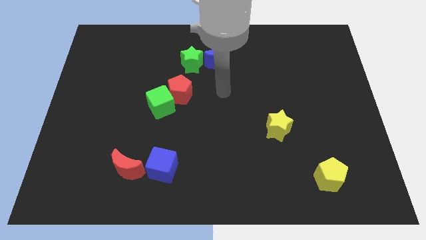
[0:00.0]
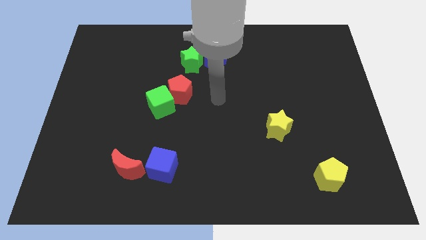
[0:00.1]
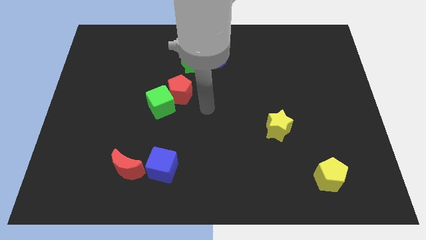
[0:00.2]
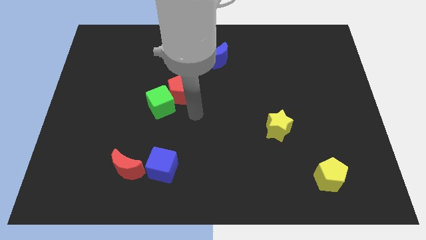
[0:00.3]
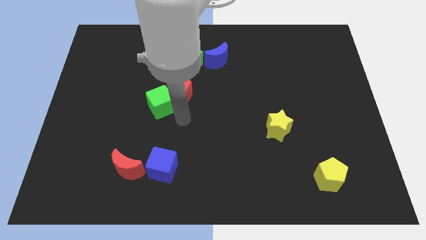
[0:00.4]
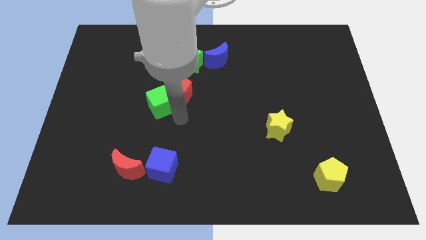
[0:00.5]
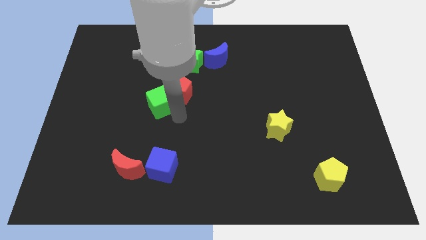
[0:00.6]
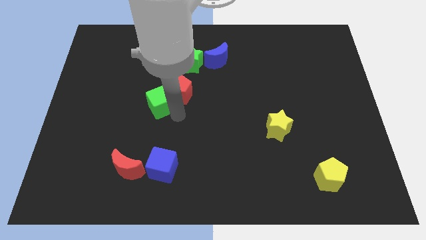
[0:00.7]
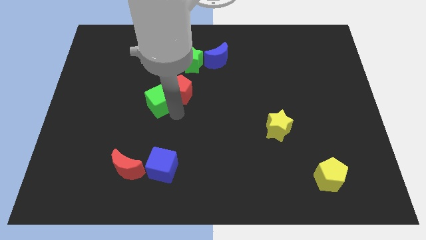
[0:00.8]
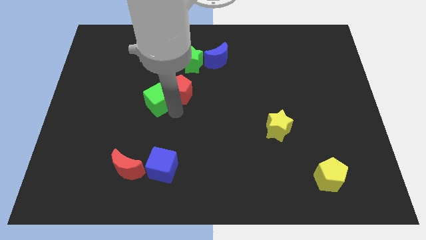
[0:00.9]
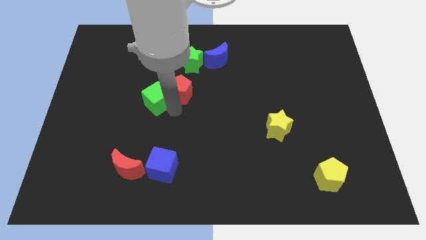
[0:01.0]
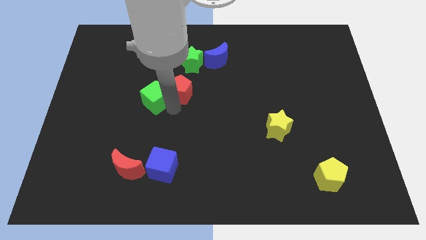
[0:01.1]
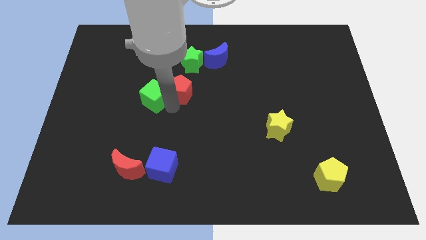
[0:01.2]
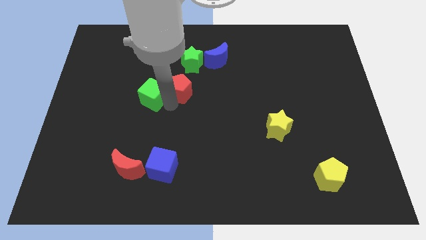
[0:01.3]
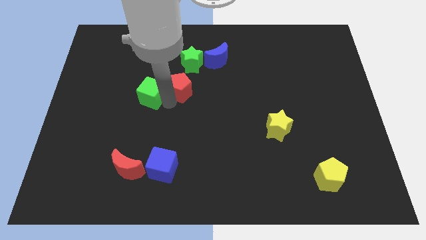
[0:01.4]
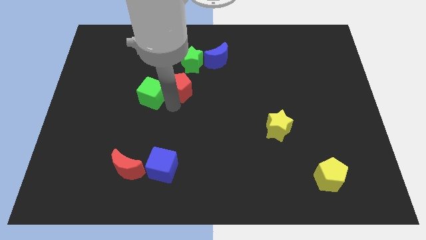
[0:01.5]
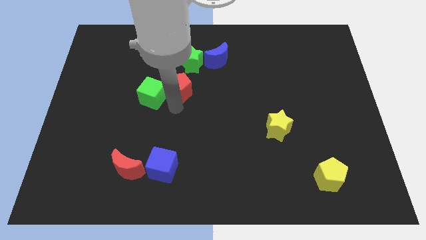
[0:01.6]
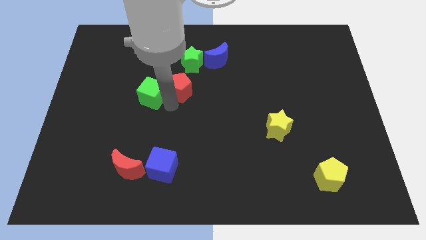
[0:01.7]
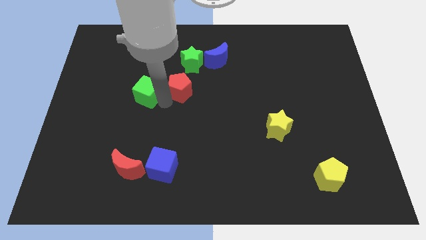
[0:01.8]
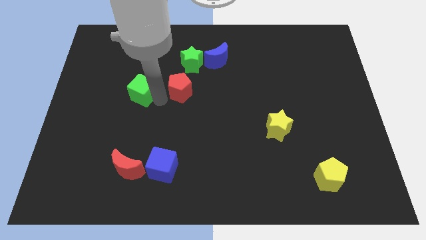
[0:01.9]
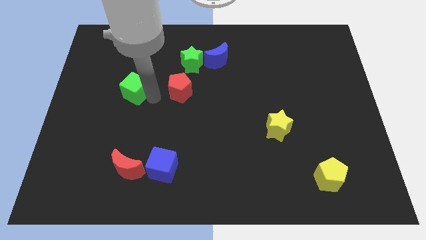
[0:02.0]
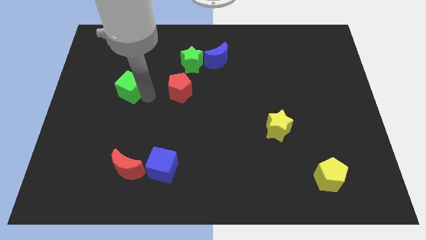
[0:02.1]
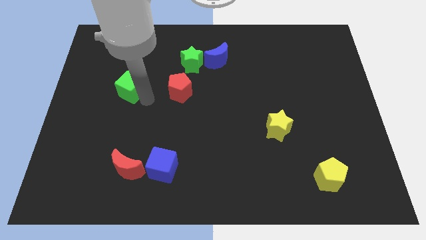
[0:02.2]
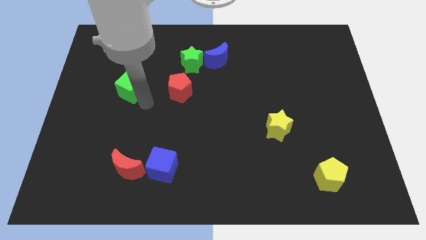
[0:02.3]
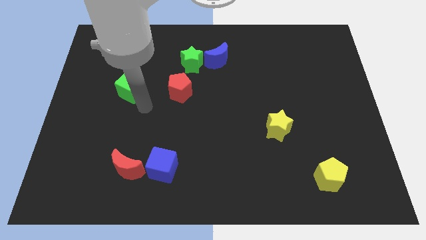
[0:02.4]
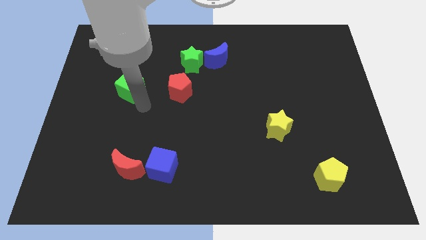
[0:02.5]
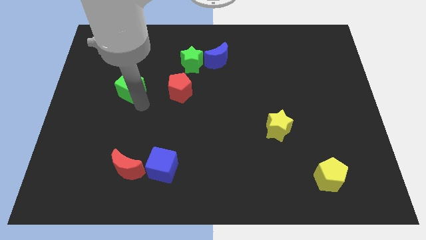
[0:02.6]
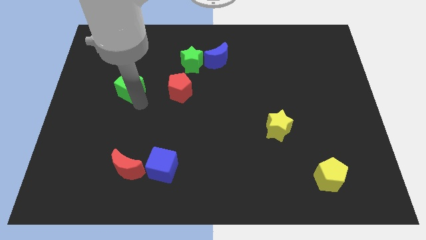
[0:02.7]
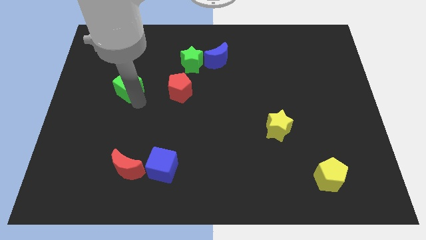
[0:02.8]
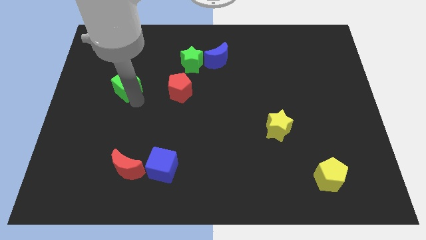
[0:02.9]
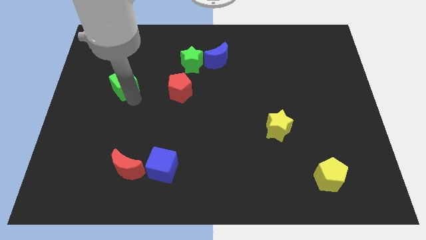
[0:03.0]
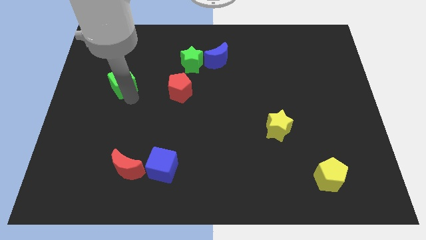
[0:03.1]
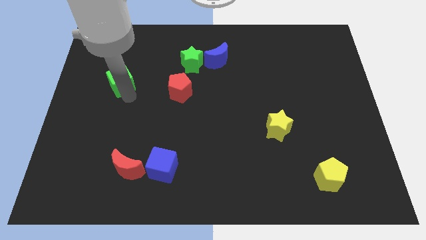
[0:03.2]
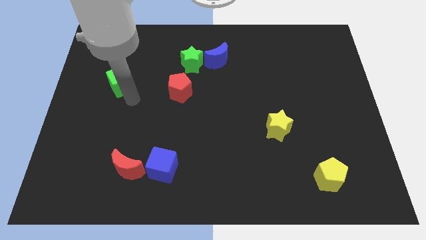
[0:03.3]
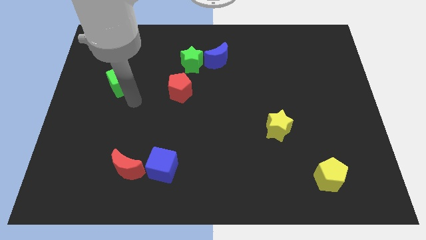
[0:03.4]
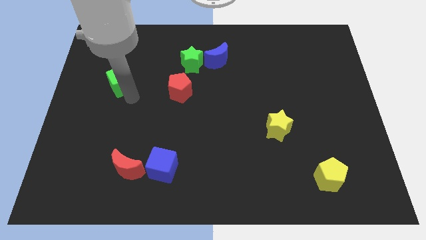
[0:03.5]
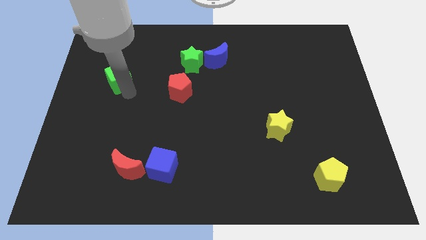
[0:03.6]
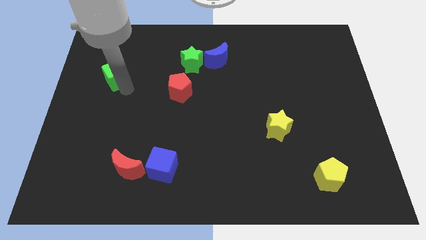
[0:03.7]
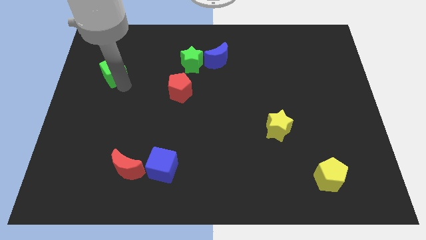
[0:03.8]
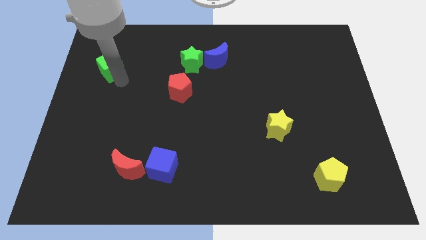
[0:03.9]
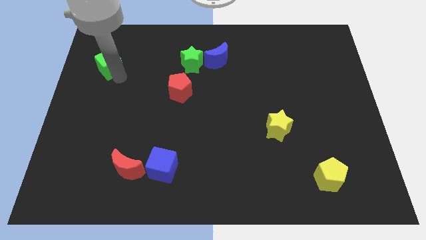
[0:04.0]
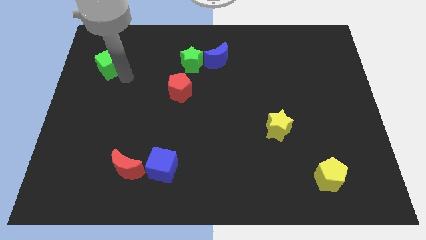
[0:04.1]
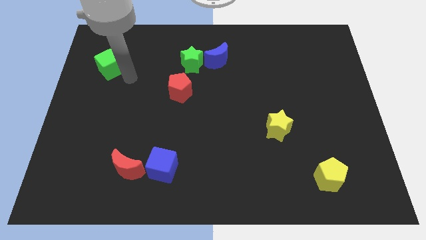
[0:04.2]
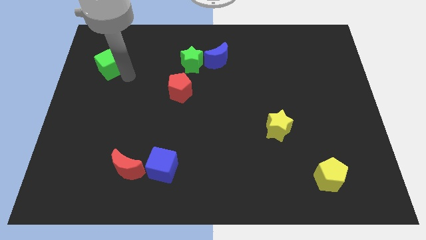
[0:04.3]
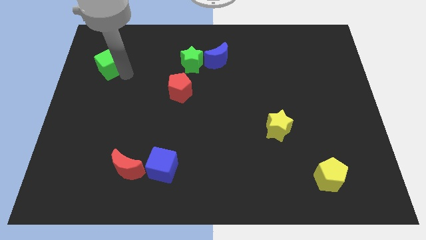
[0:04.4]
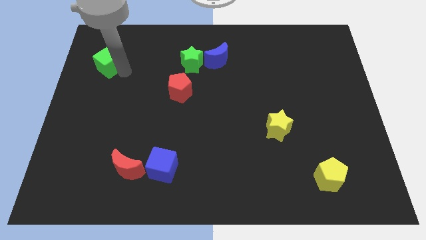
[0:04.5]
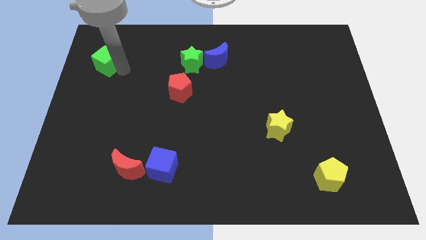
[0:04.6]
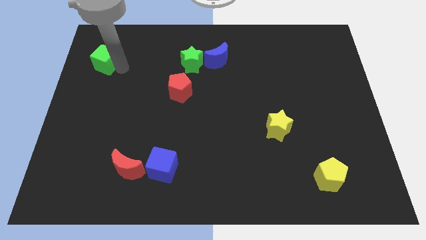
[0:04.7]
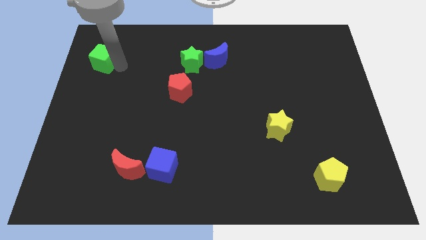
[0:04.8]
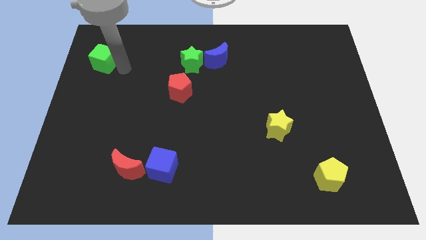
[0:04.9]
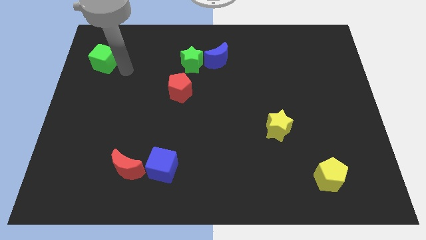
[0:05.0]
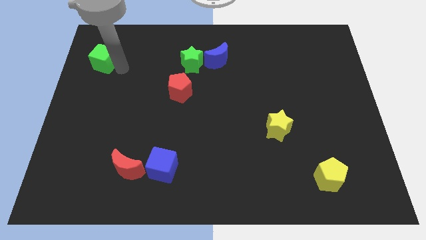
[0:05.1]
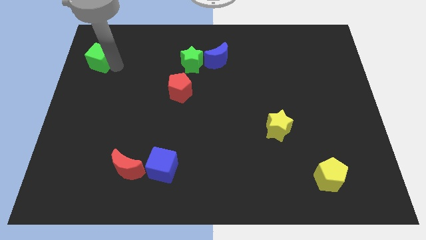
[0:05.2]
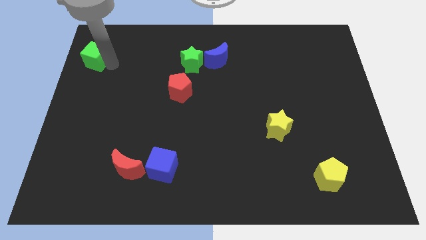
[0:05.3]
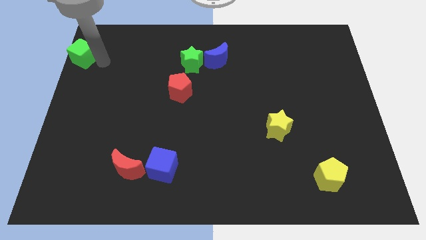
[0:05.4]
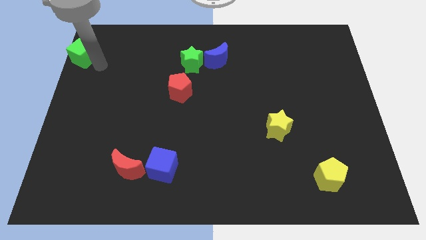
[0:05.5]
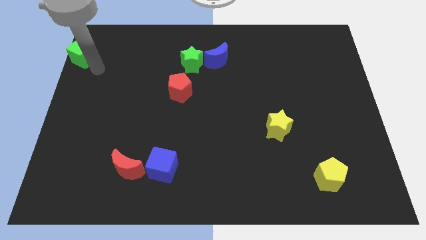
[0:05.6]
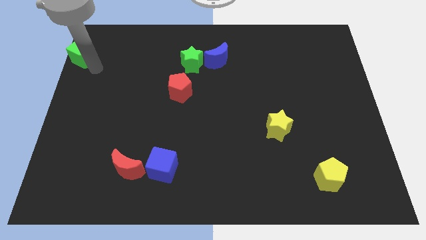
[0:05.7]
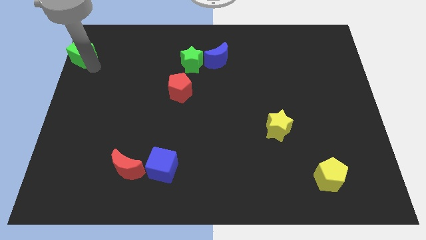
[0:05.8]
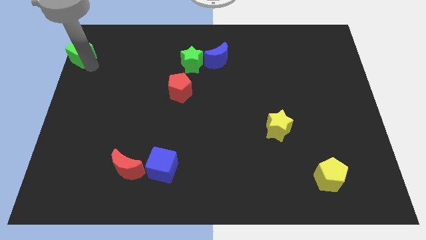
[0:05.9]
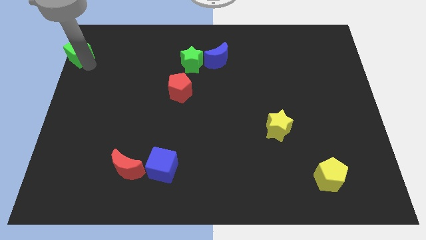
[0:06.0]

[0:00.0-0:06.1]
put the green cube to the top left corner
